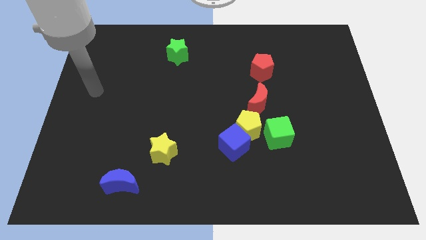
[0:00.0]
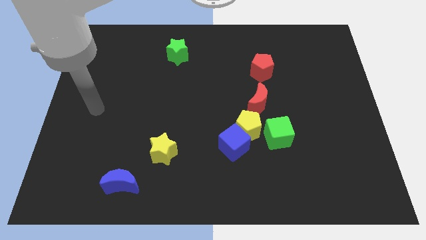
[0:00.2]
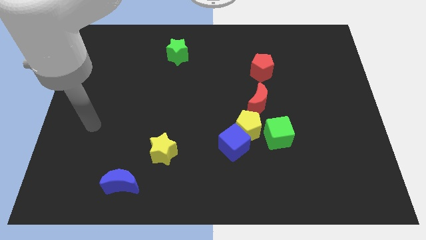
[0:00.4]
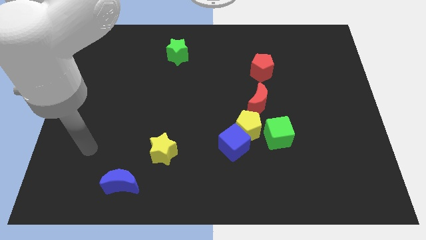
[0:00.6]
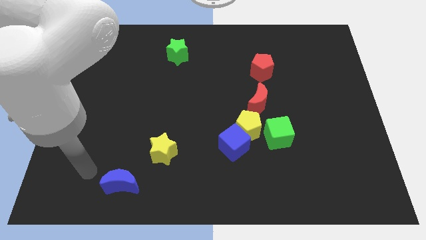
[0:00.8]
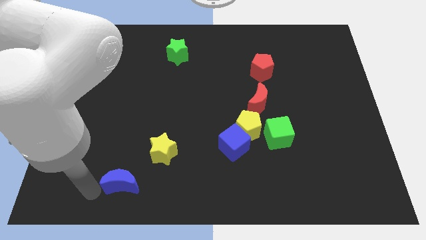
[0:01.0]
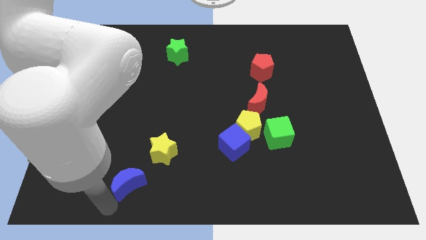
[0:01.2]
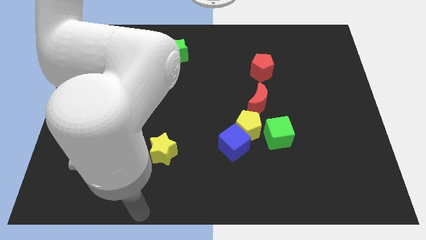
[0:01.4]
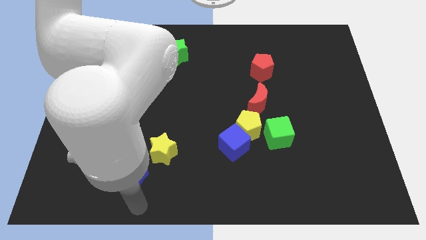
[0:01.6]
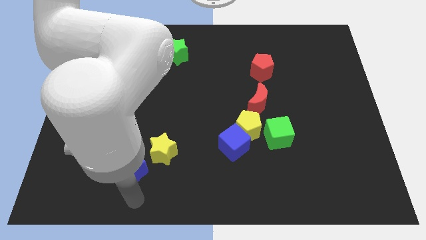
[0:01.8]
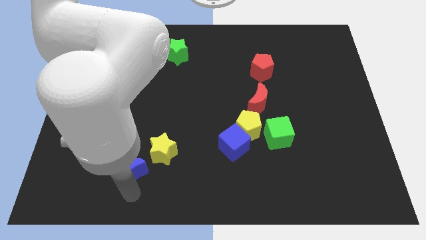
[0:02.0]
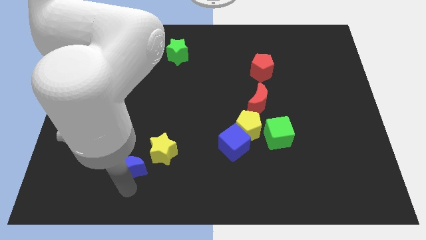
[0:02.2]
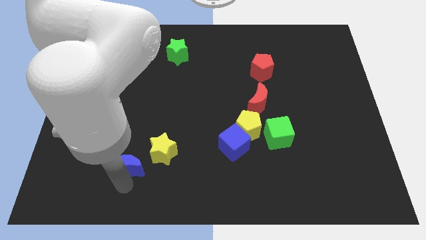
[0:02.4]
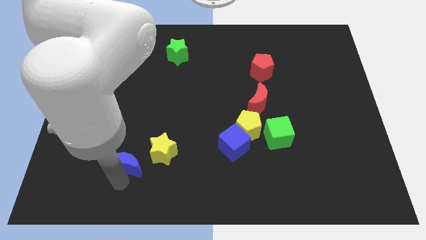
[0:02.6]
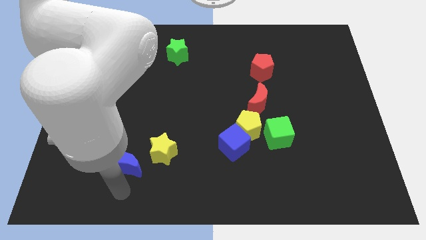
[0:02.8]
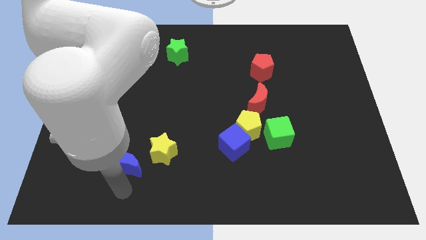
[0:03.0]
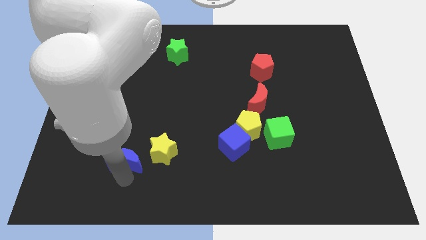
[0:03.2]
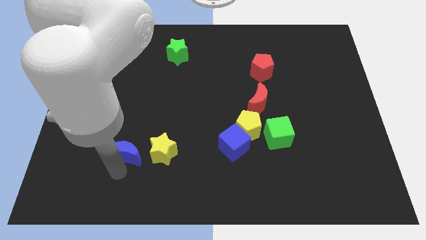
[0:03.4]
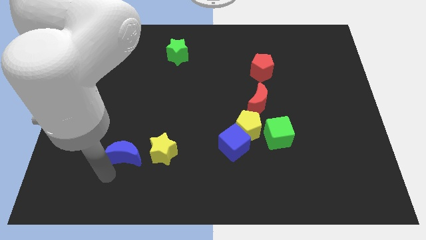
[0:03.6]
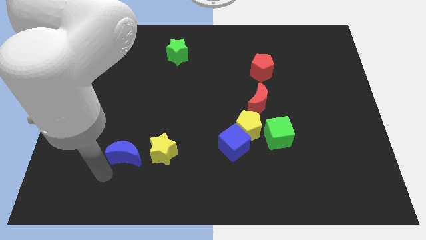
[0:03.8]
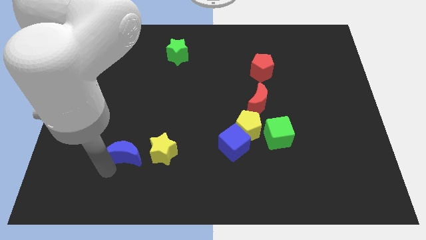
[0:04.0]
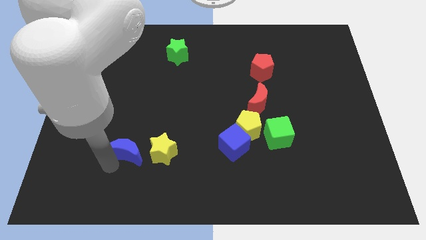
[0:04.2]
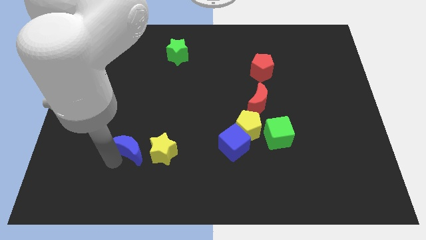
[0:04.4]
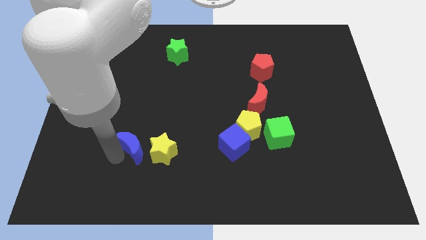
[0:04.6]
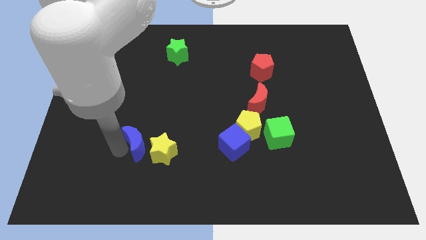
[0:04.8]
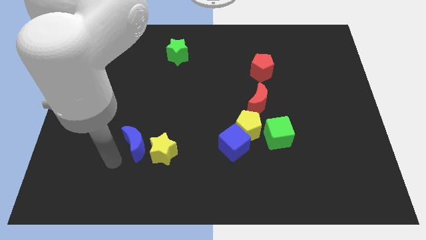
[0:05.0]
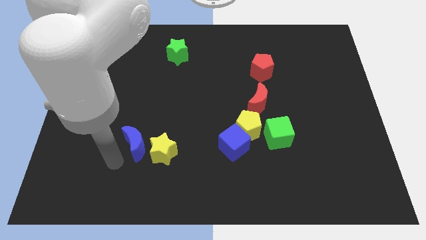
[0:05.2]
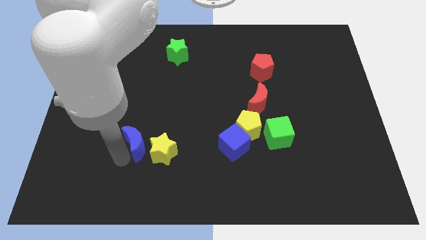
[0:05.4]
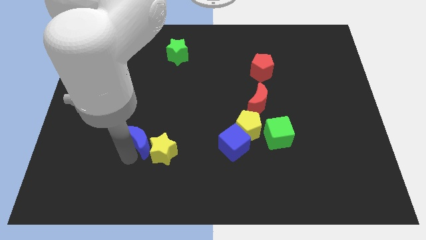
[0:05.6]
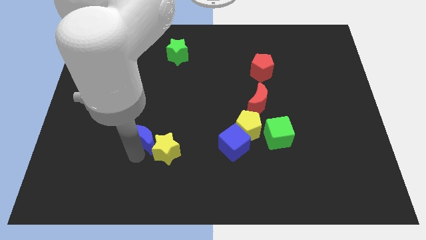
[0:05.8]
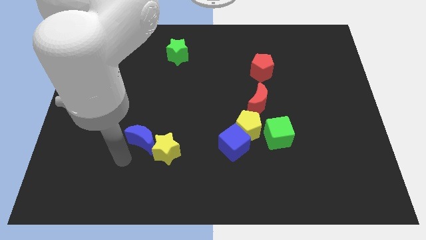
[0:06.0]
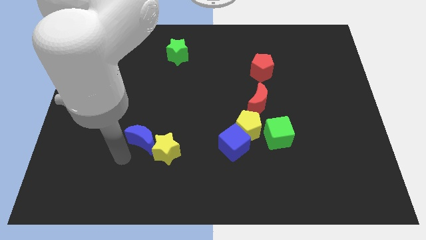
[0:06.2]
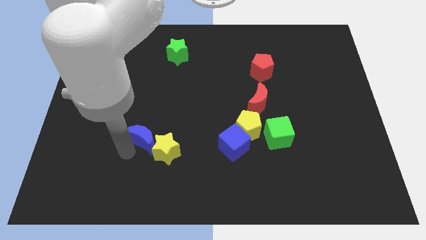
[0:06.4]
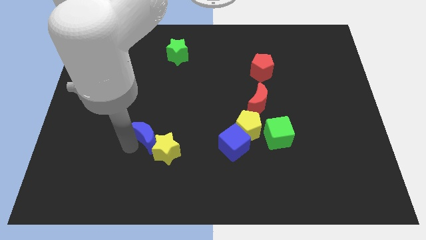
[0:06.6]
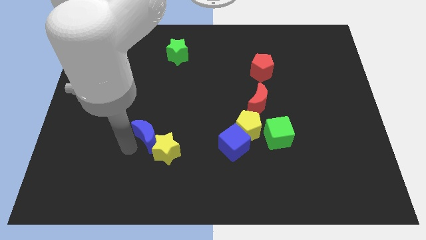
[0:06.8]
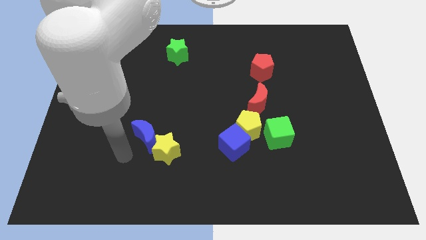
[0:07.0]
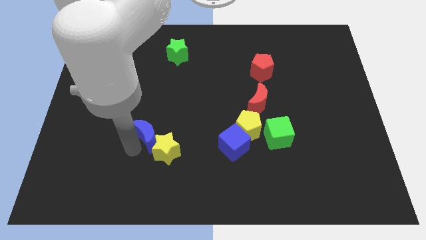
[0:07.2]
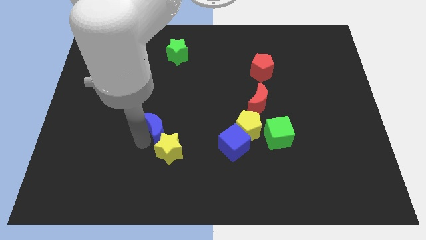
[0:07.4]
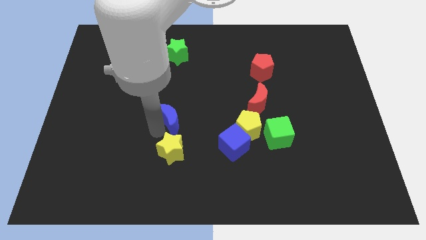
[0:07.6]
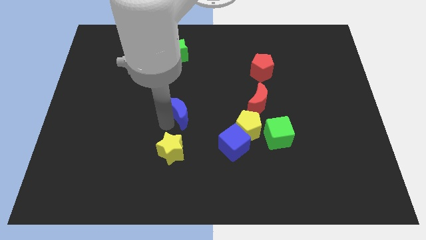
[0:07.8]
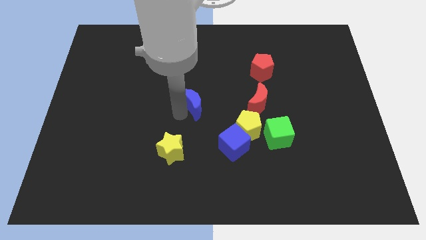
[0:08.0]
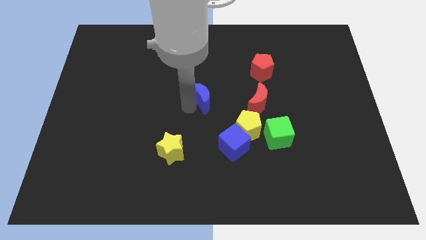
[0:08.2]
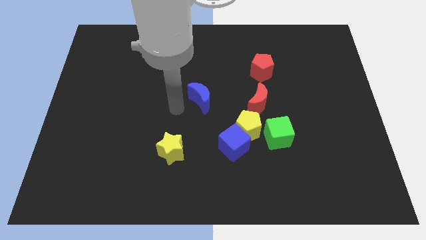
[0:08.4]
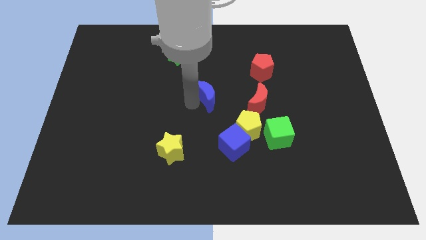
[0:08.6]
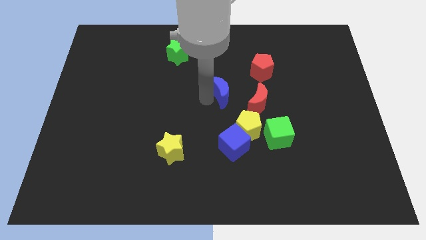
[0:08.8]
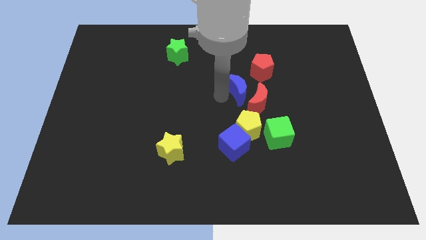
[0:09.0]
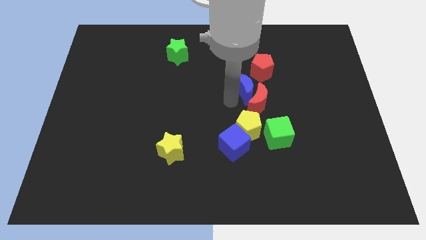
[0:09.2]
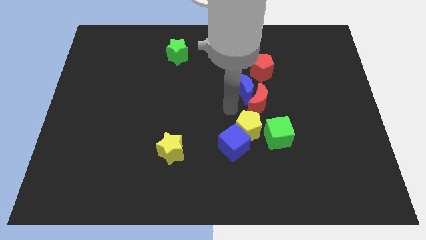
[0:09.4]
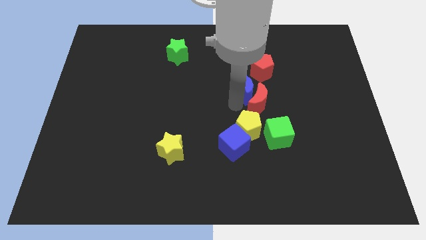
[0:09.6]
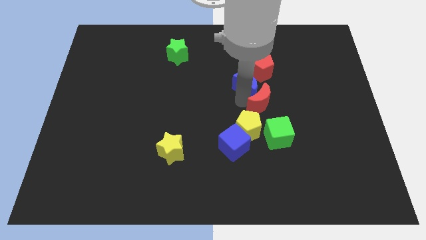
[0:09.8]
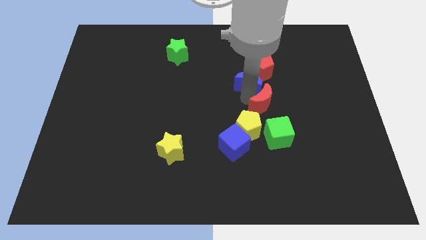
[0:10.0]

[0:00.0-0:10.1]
push the blue moon towards the red pentagon

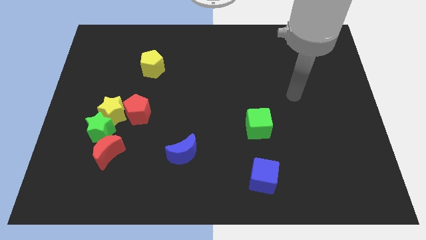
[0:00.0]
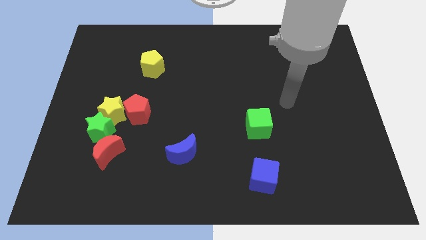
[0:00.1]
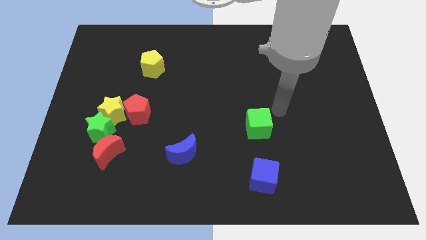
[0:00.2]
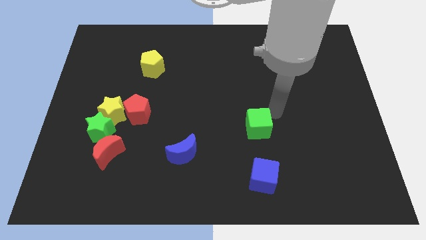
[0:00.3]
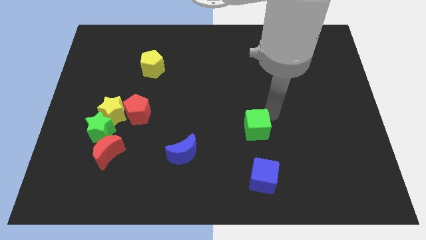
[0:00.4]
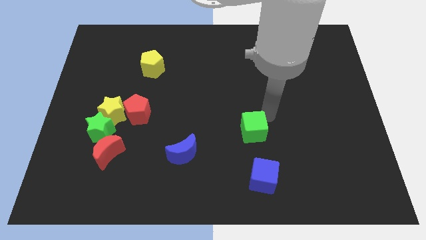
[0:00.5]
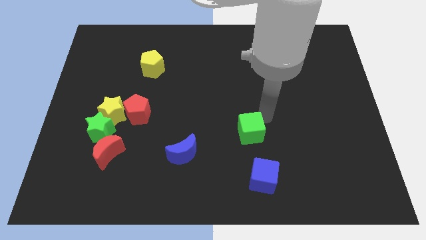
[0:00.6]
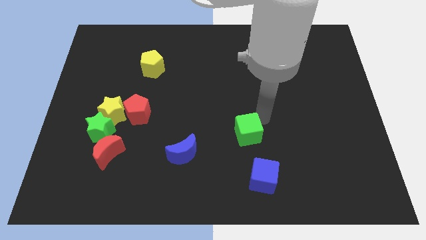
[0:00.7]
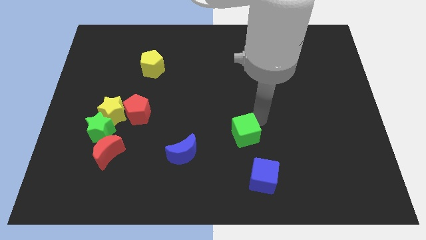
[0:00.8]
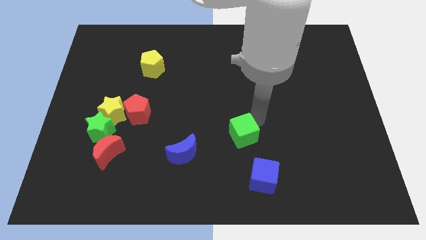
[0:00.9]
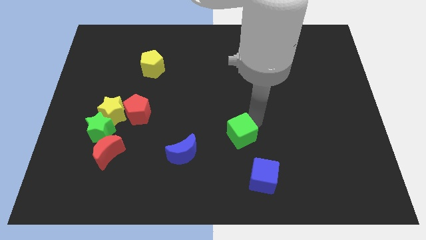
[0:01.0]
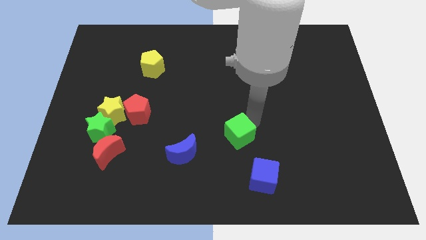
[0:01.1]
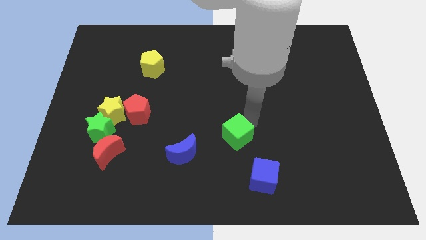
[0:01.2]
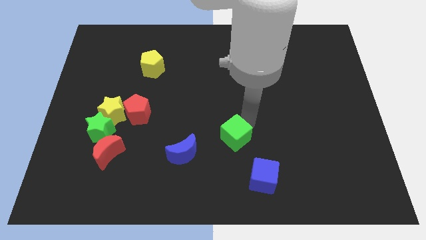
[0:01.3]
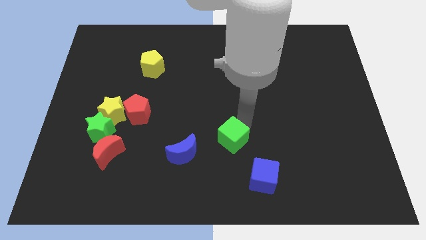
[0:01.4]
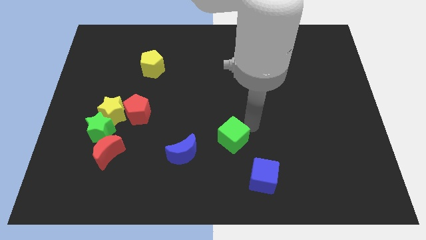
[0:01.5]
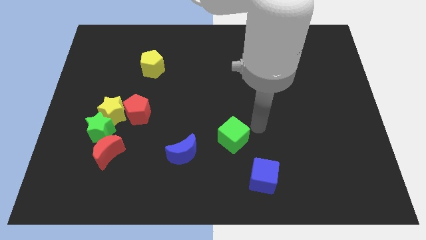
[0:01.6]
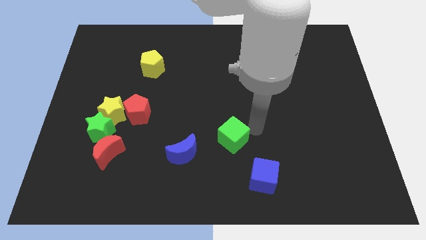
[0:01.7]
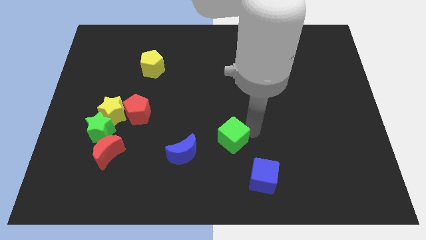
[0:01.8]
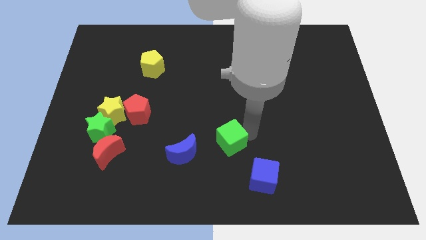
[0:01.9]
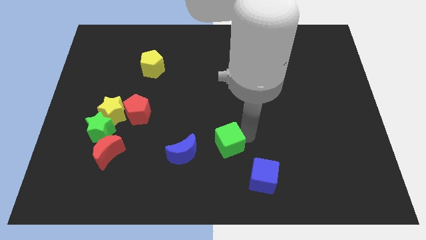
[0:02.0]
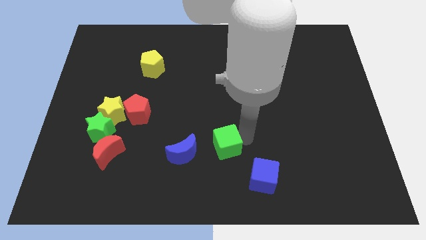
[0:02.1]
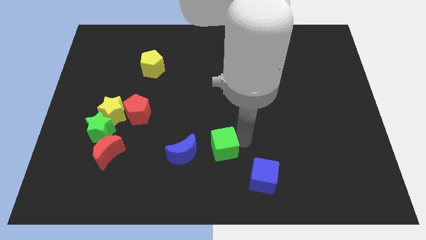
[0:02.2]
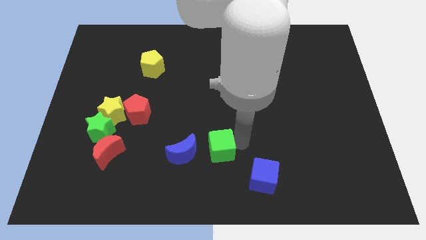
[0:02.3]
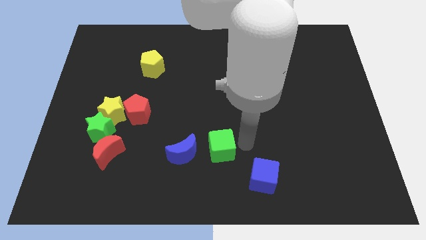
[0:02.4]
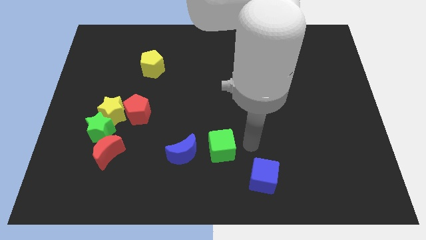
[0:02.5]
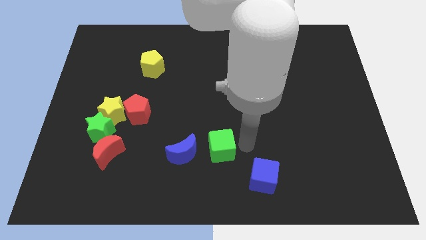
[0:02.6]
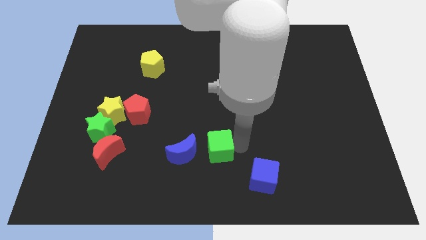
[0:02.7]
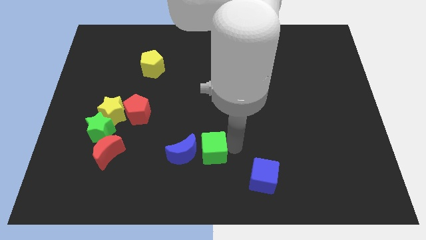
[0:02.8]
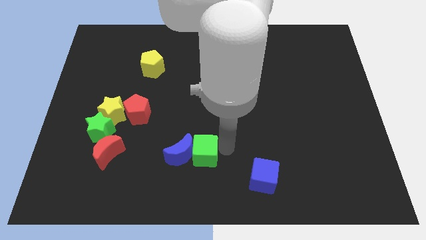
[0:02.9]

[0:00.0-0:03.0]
slide the green cube close to the blue moon
